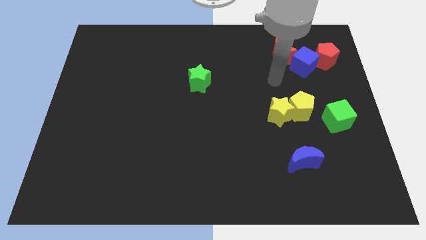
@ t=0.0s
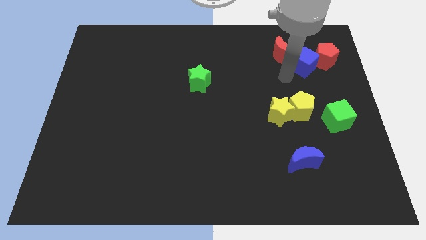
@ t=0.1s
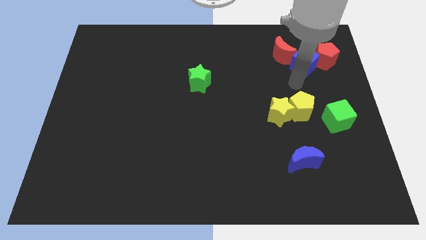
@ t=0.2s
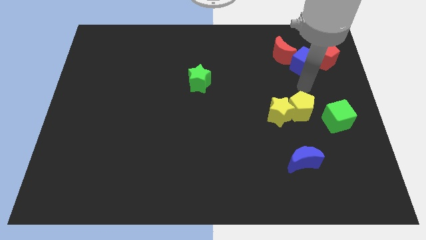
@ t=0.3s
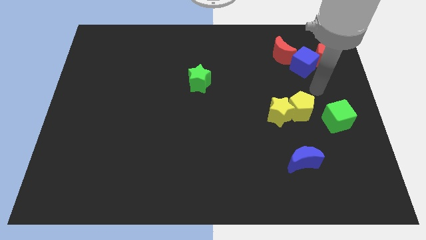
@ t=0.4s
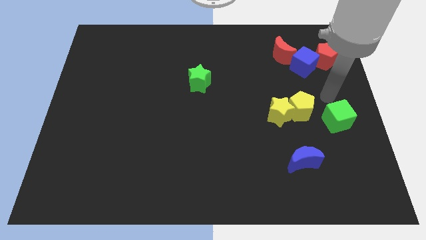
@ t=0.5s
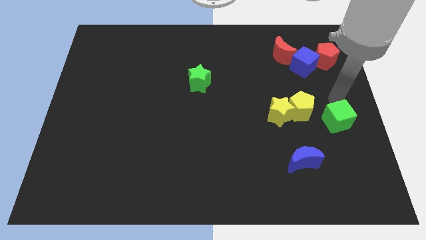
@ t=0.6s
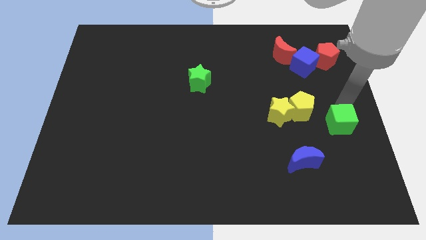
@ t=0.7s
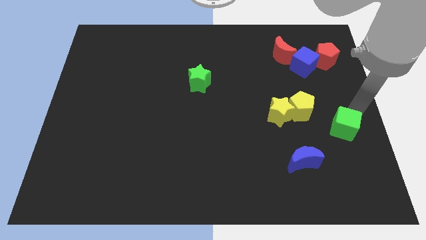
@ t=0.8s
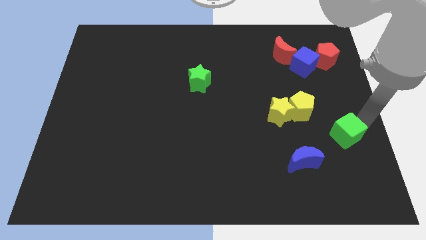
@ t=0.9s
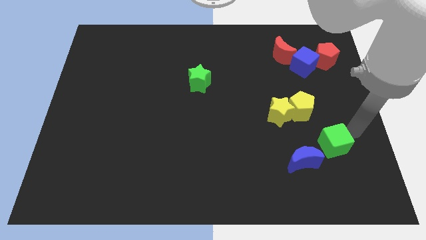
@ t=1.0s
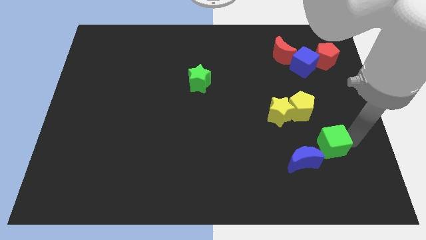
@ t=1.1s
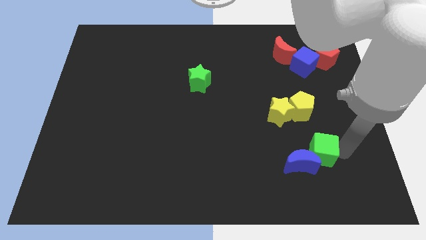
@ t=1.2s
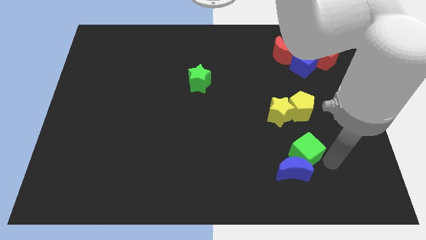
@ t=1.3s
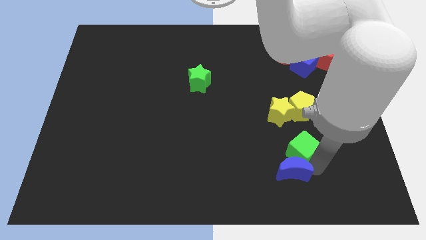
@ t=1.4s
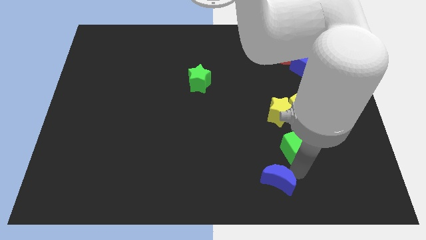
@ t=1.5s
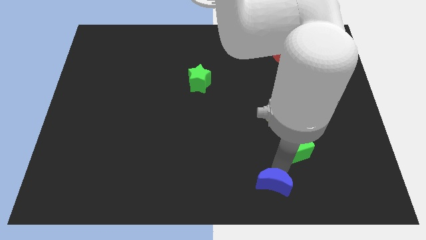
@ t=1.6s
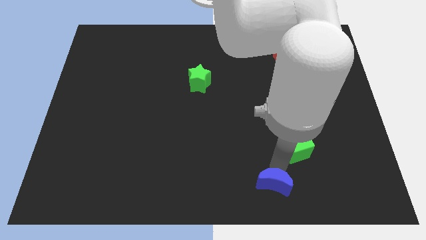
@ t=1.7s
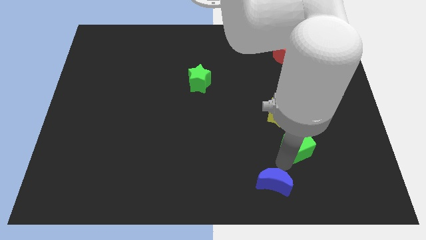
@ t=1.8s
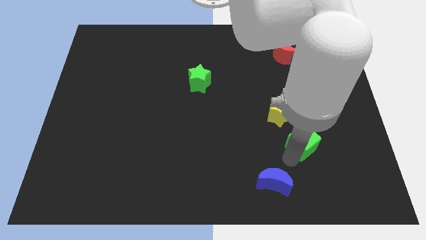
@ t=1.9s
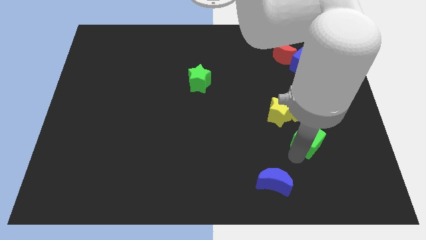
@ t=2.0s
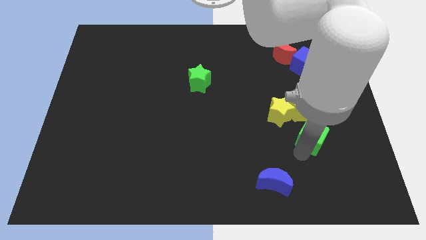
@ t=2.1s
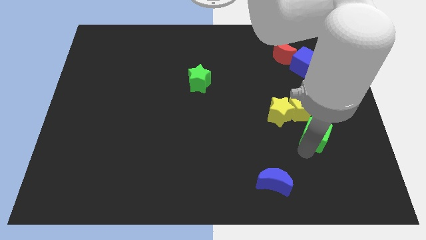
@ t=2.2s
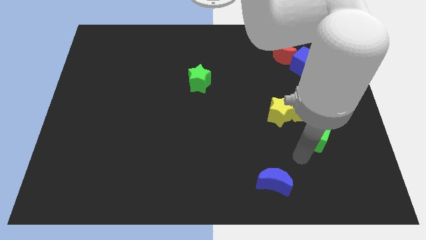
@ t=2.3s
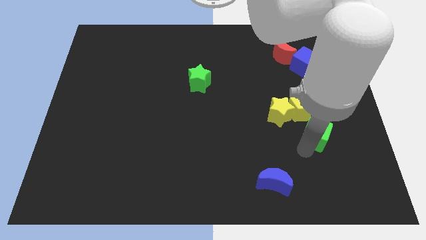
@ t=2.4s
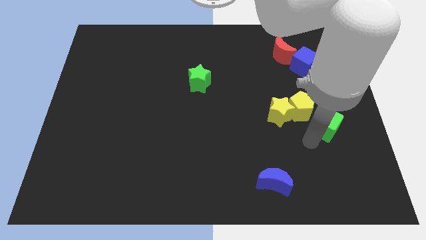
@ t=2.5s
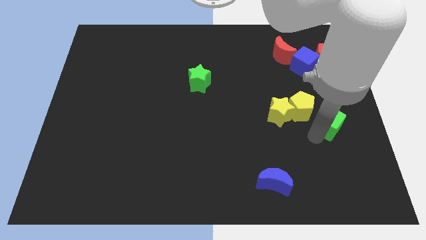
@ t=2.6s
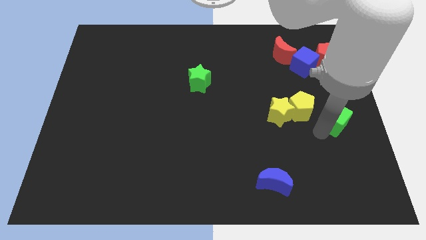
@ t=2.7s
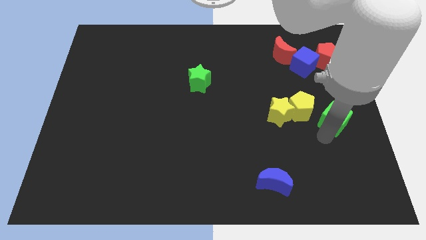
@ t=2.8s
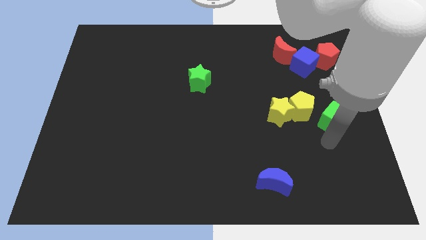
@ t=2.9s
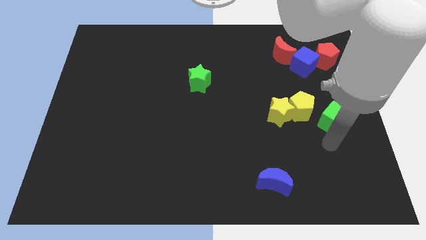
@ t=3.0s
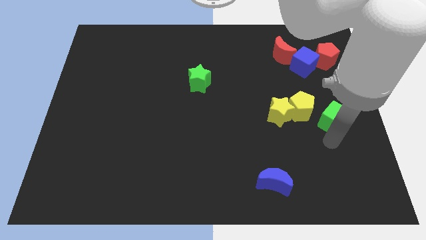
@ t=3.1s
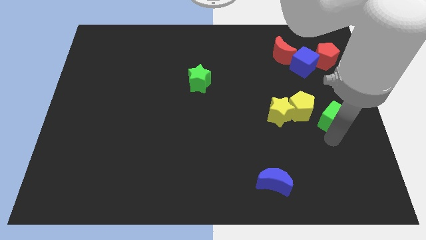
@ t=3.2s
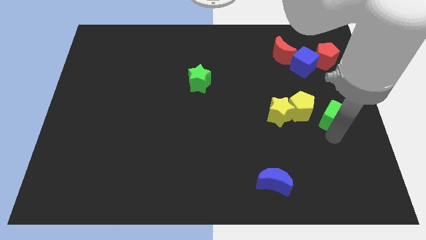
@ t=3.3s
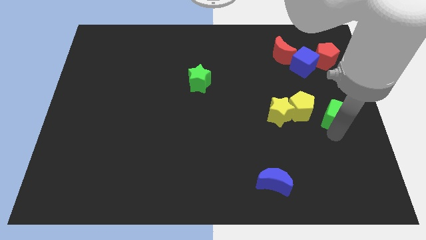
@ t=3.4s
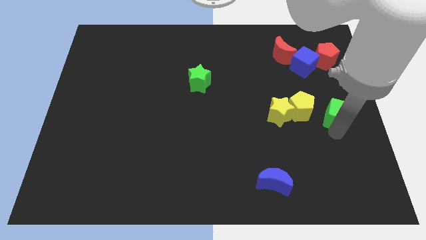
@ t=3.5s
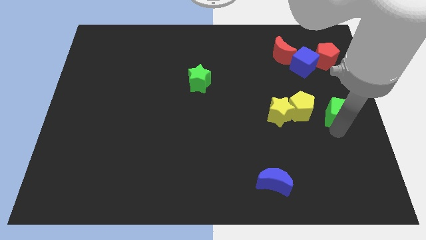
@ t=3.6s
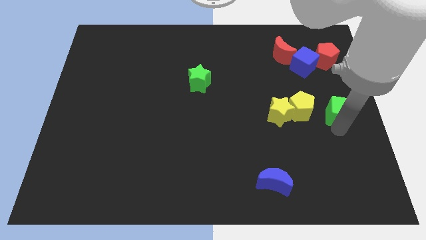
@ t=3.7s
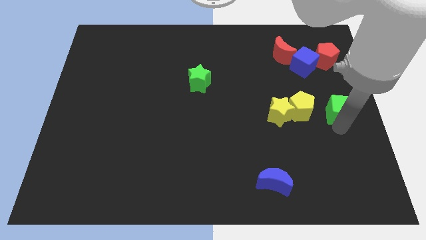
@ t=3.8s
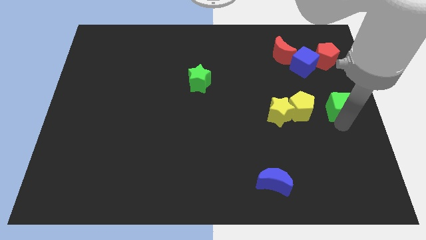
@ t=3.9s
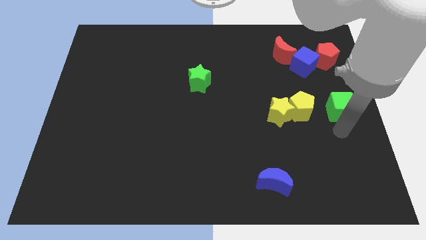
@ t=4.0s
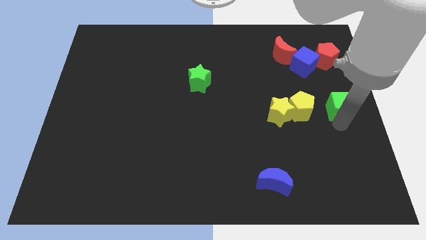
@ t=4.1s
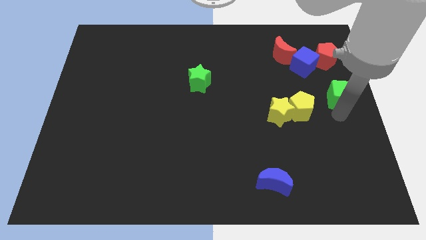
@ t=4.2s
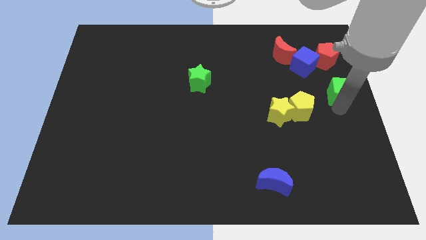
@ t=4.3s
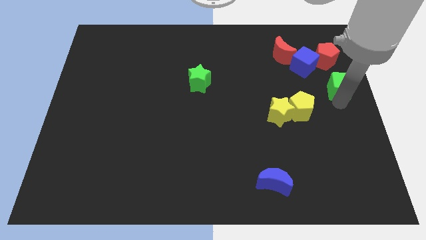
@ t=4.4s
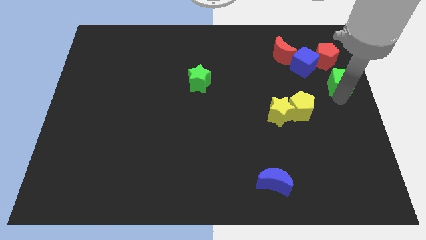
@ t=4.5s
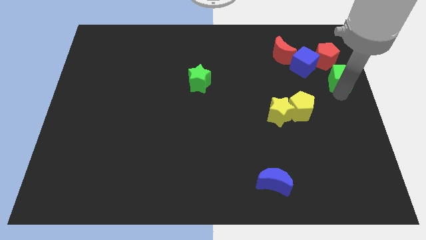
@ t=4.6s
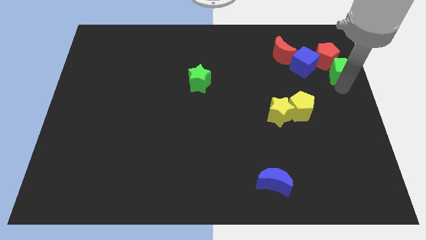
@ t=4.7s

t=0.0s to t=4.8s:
move the green cube next to the red pentagon

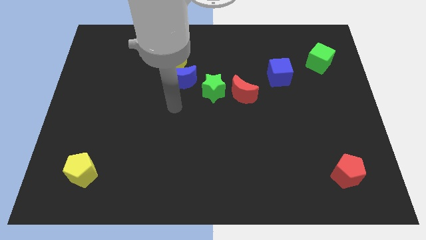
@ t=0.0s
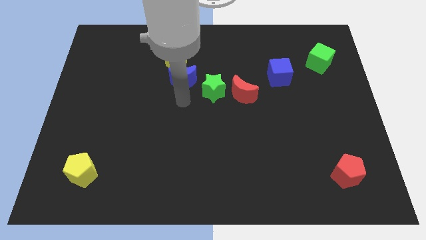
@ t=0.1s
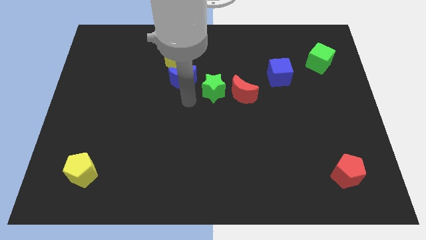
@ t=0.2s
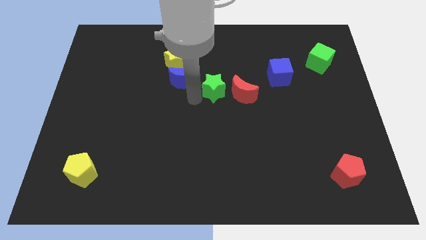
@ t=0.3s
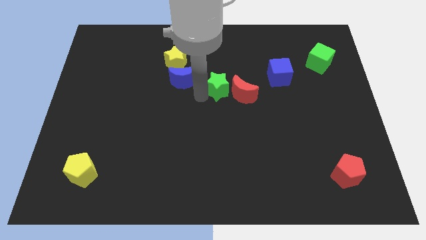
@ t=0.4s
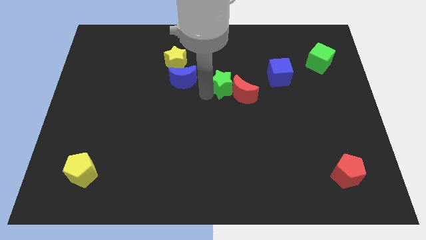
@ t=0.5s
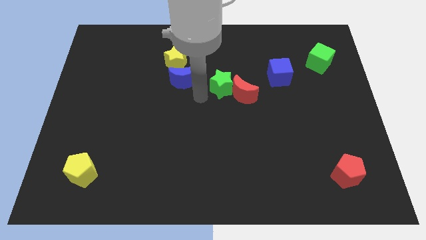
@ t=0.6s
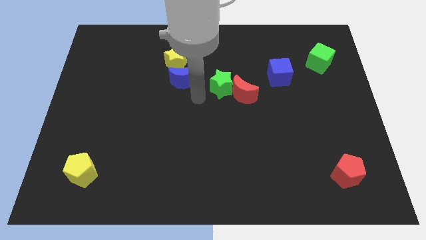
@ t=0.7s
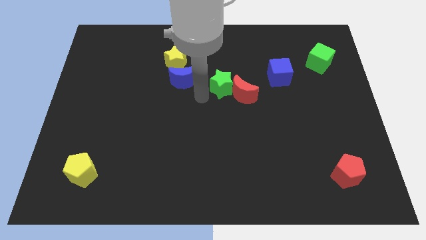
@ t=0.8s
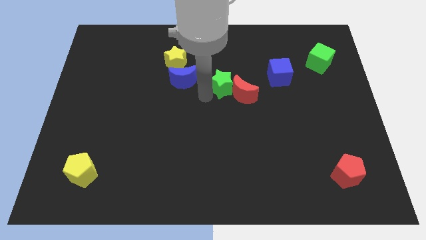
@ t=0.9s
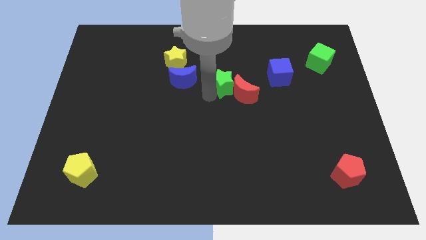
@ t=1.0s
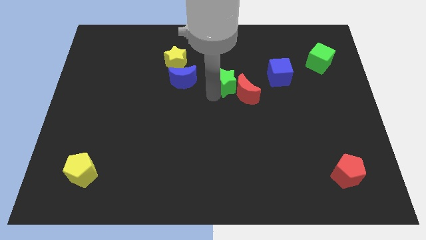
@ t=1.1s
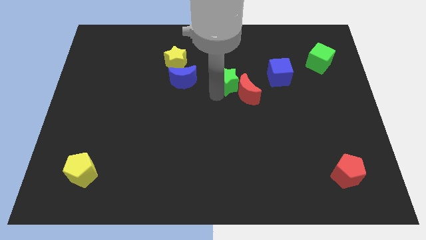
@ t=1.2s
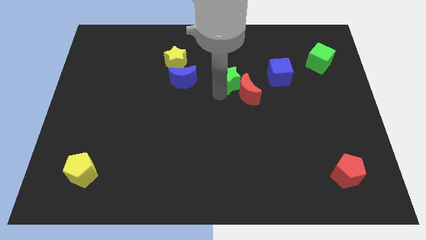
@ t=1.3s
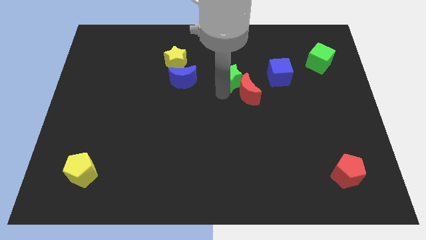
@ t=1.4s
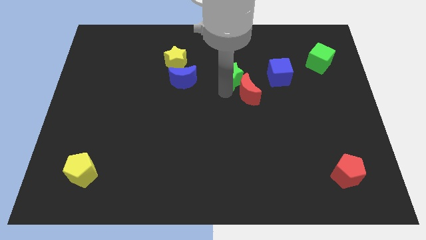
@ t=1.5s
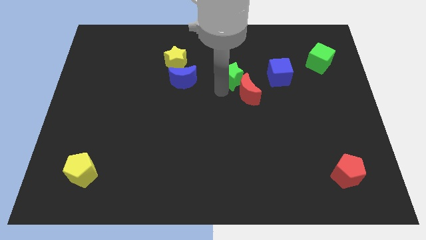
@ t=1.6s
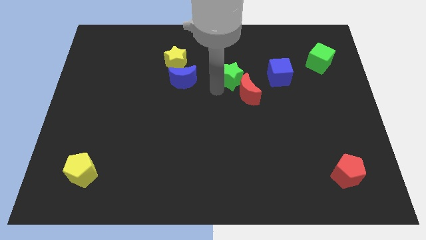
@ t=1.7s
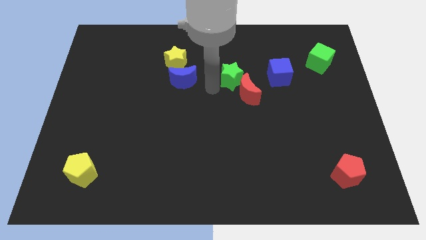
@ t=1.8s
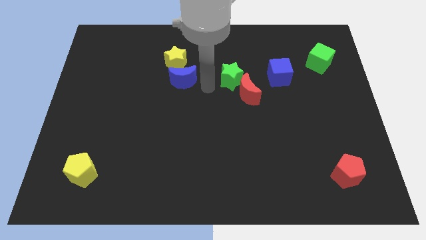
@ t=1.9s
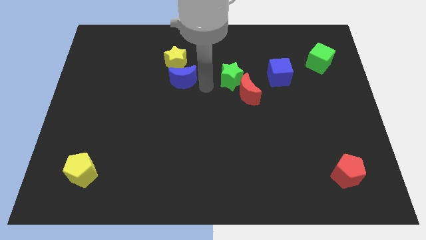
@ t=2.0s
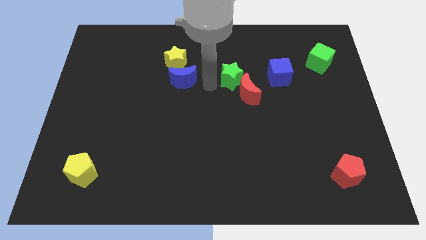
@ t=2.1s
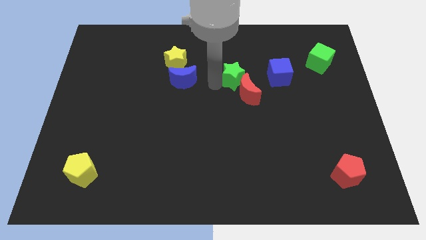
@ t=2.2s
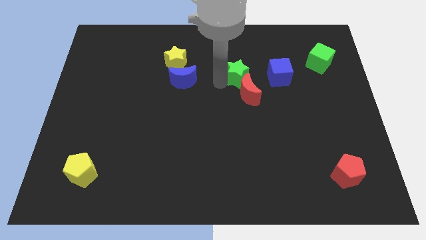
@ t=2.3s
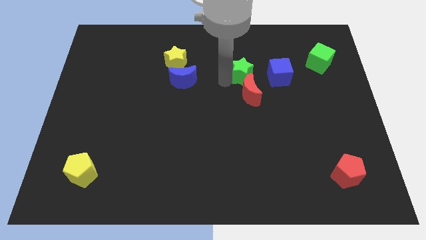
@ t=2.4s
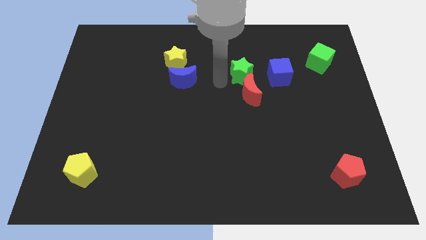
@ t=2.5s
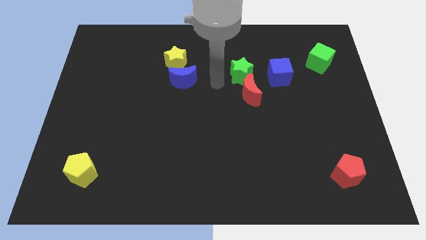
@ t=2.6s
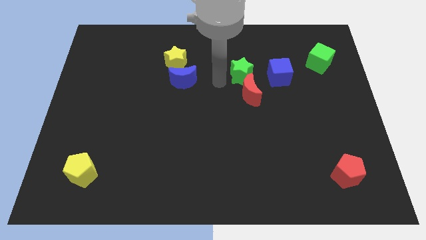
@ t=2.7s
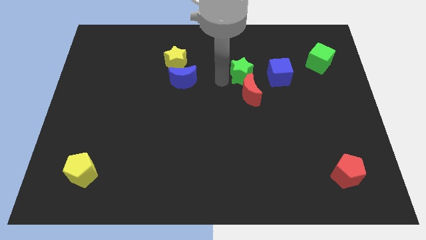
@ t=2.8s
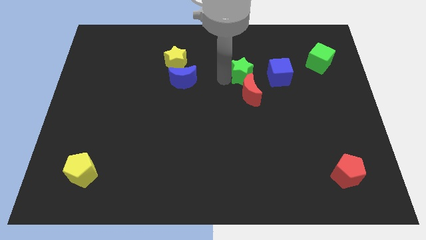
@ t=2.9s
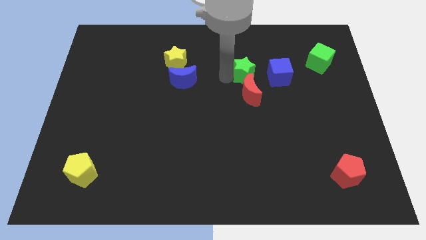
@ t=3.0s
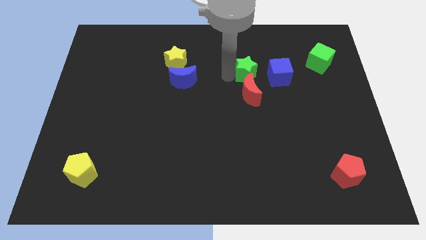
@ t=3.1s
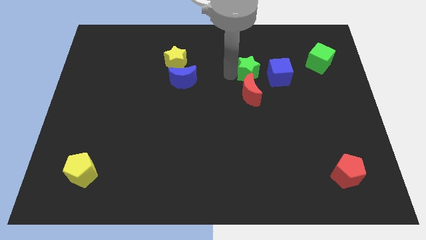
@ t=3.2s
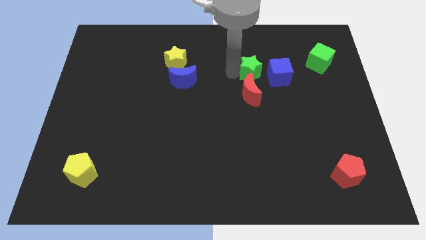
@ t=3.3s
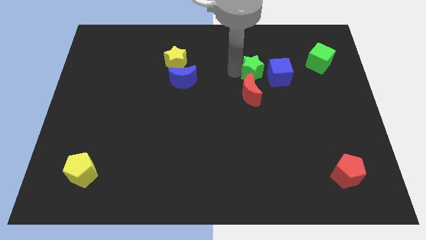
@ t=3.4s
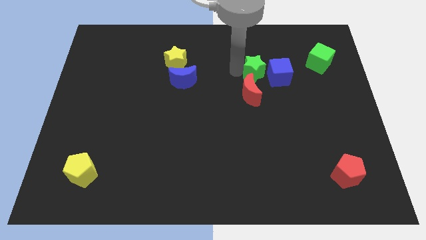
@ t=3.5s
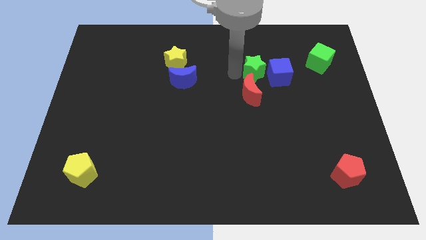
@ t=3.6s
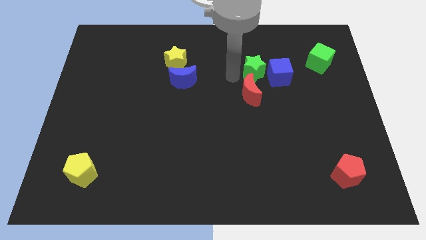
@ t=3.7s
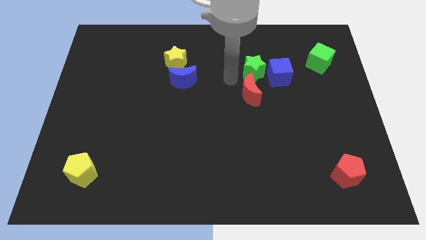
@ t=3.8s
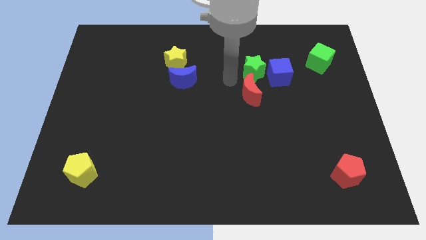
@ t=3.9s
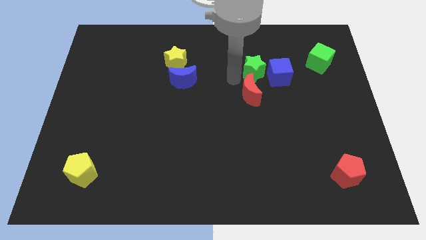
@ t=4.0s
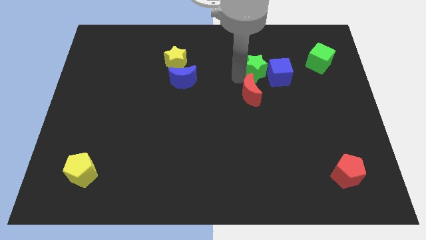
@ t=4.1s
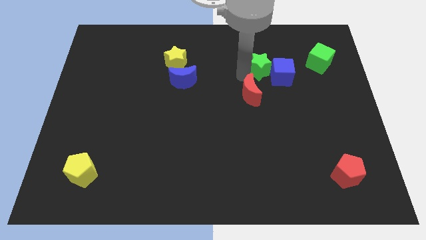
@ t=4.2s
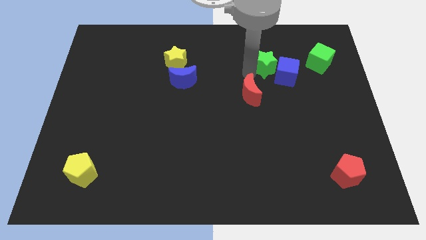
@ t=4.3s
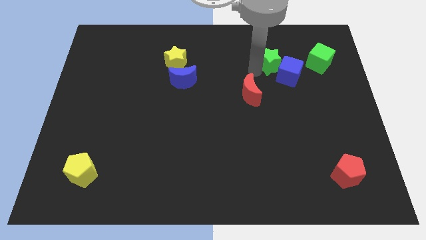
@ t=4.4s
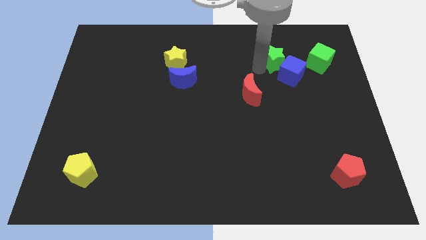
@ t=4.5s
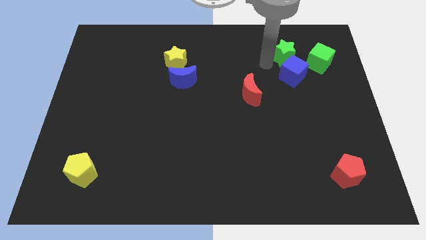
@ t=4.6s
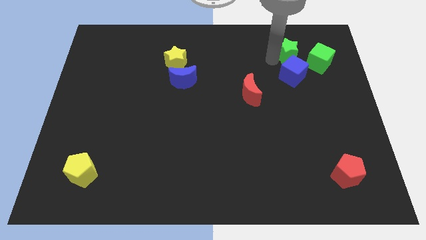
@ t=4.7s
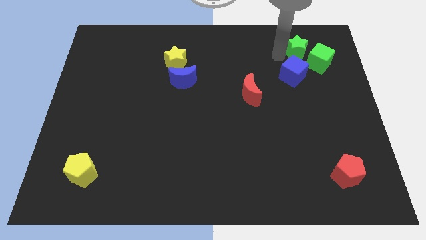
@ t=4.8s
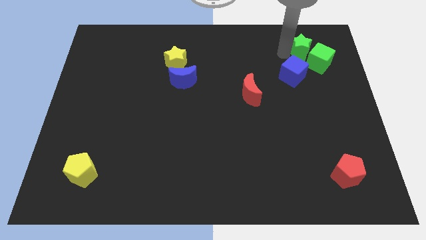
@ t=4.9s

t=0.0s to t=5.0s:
push the green star to the green cube
